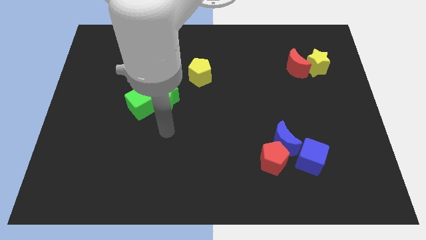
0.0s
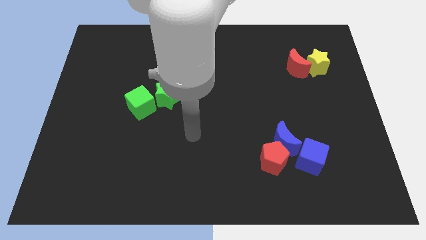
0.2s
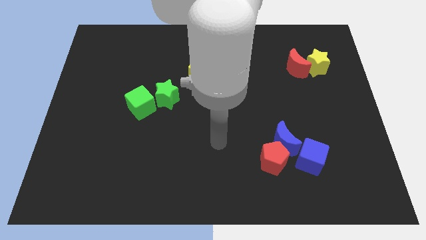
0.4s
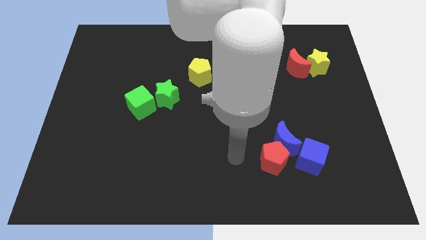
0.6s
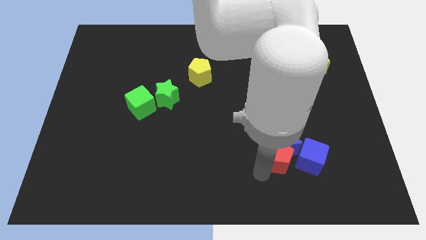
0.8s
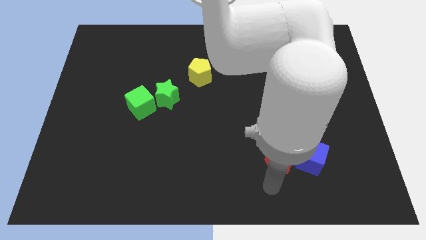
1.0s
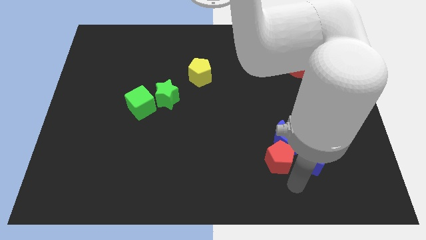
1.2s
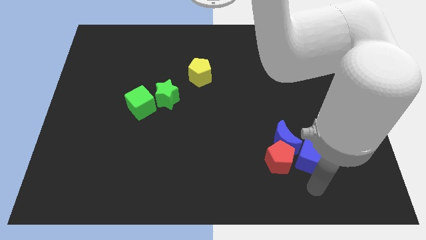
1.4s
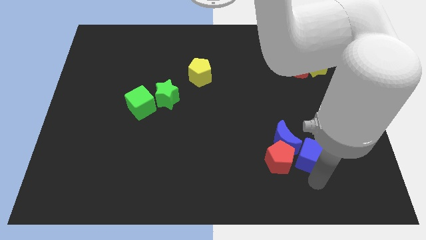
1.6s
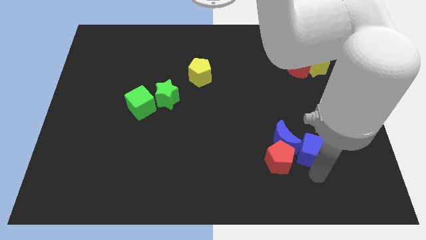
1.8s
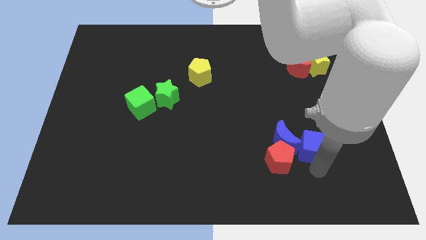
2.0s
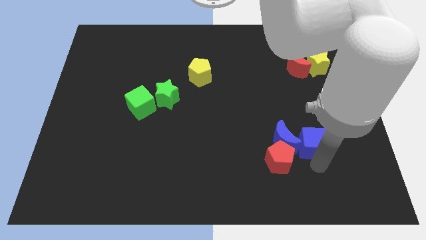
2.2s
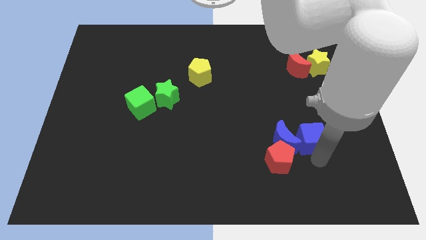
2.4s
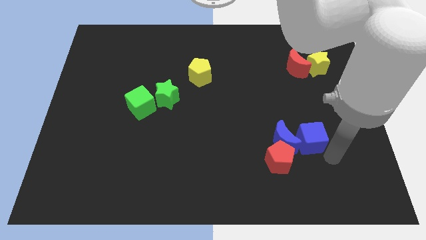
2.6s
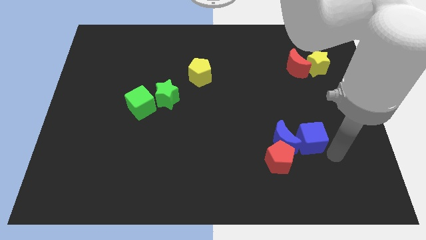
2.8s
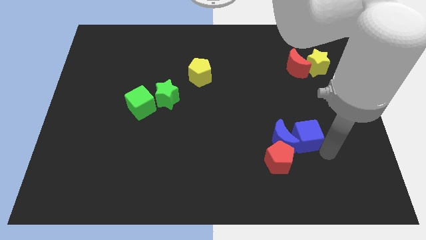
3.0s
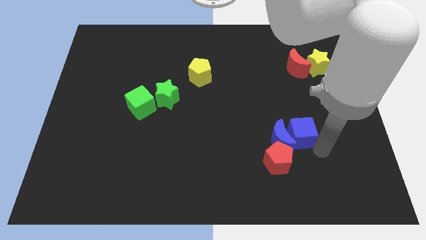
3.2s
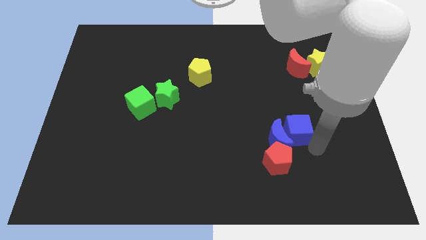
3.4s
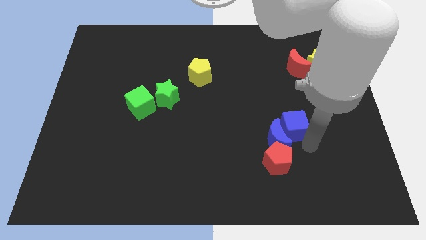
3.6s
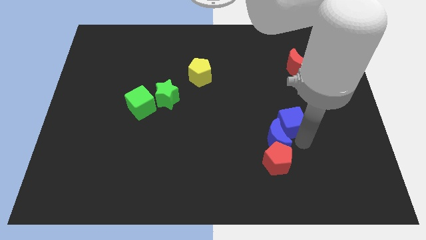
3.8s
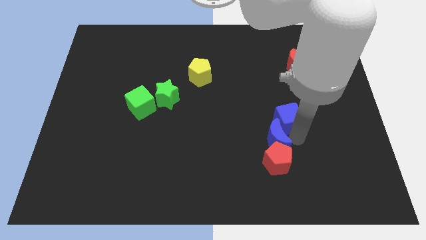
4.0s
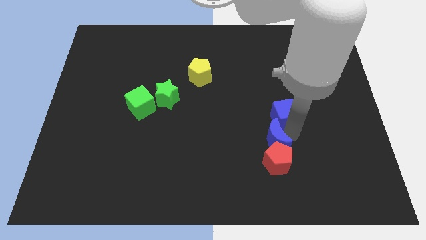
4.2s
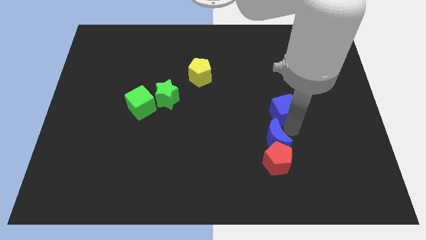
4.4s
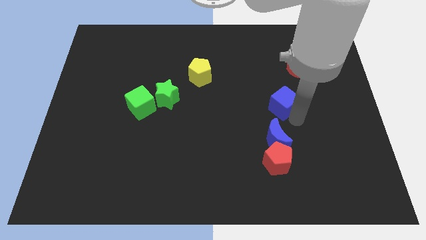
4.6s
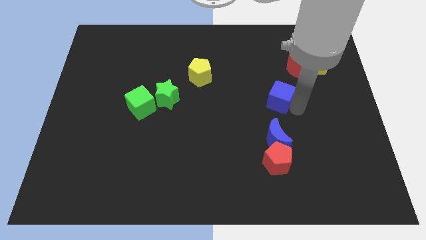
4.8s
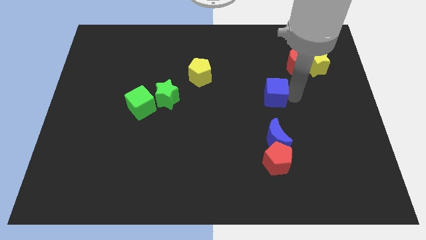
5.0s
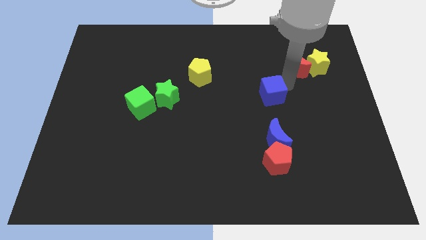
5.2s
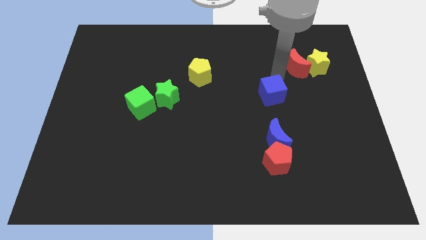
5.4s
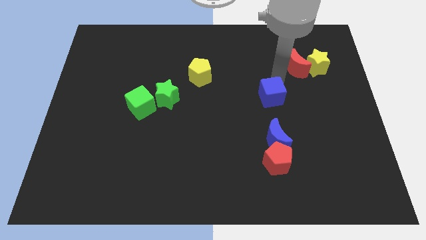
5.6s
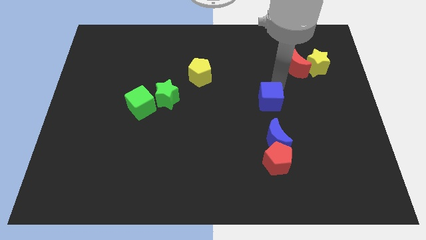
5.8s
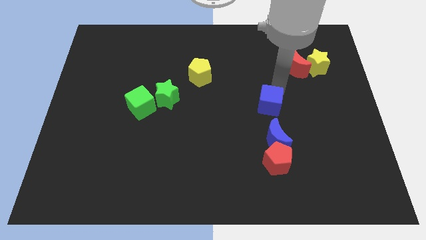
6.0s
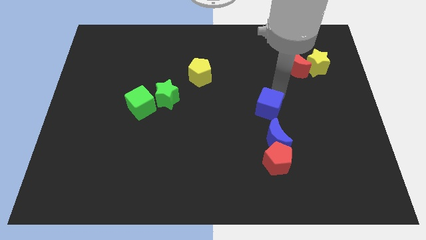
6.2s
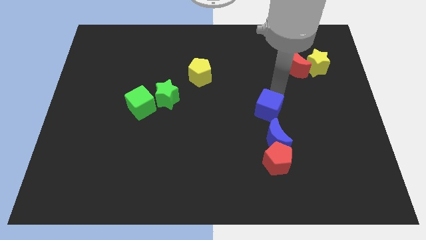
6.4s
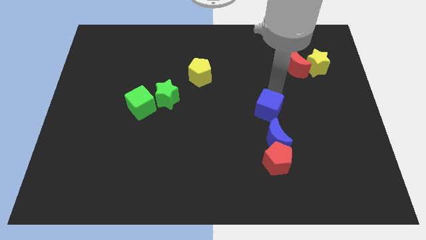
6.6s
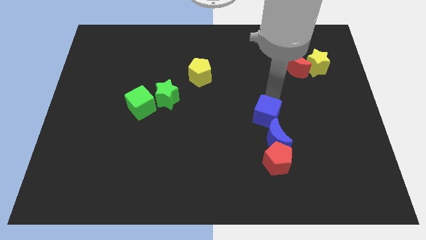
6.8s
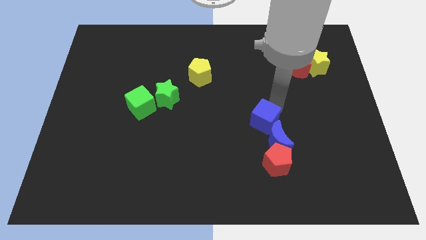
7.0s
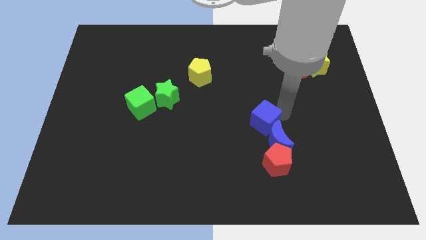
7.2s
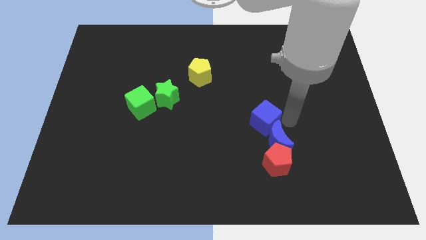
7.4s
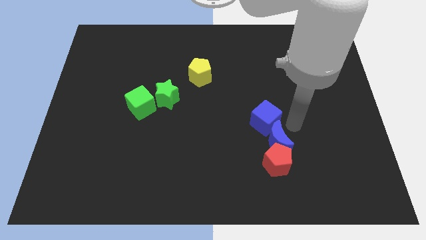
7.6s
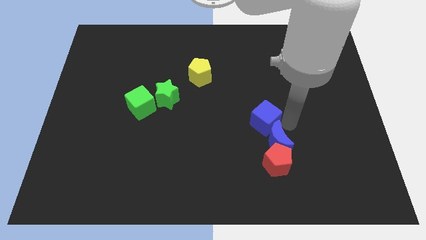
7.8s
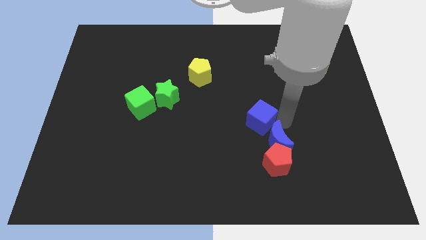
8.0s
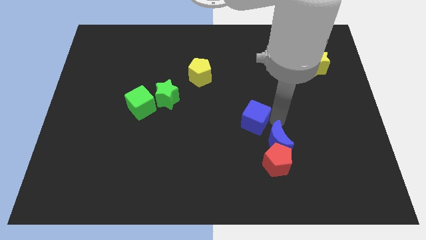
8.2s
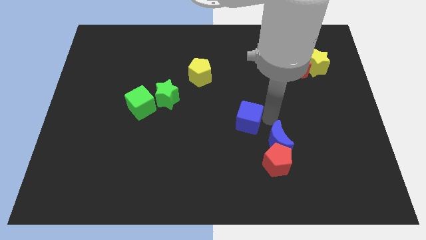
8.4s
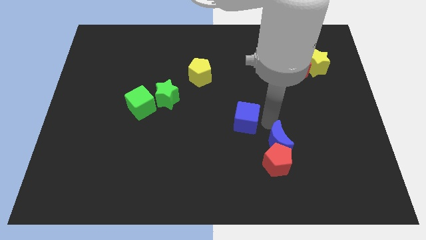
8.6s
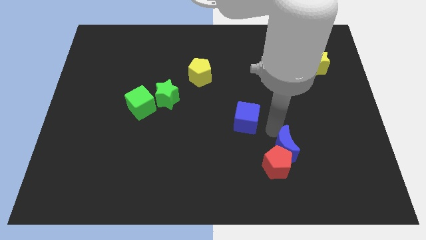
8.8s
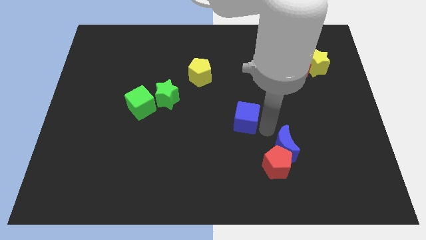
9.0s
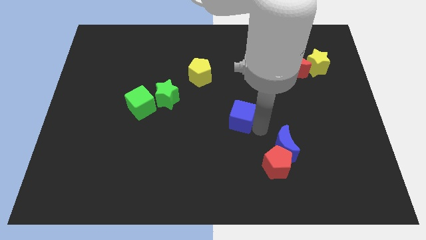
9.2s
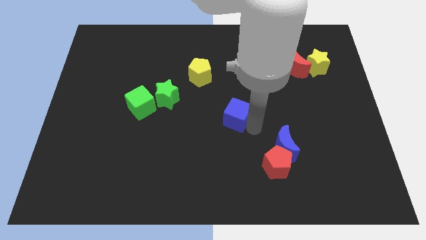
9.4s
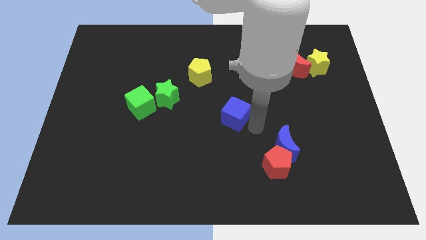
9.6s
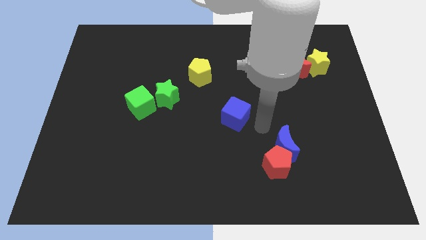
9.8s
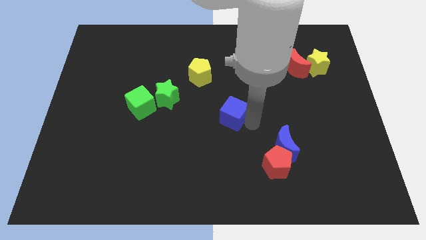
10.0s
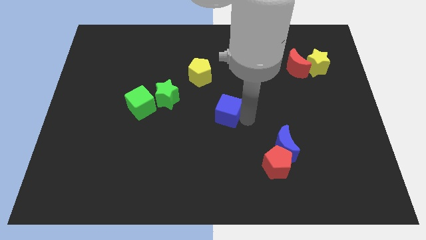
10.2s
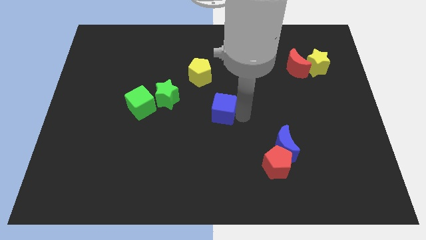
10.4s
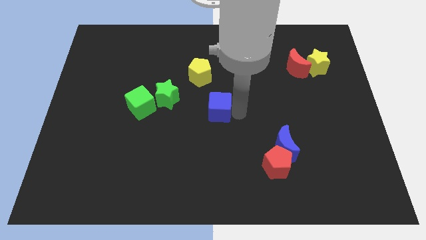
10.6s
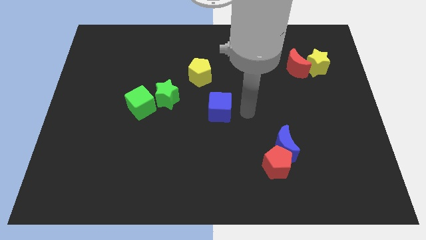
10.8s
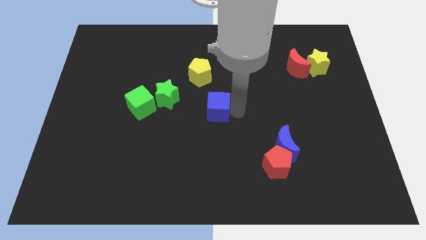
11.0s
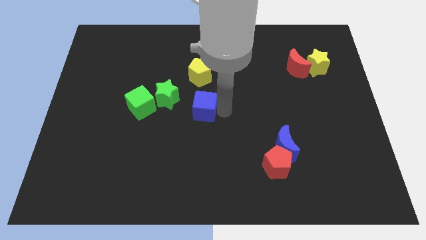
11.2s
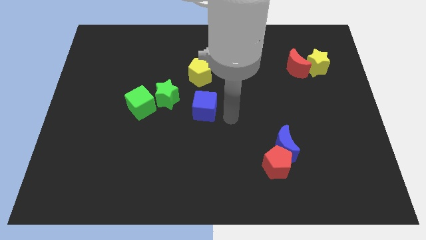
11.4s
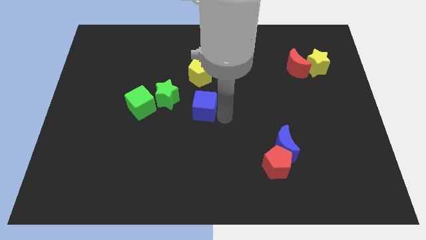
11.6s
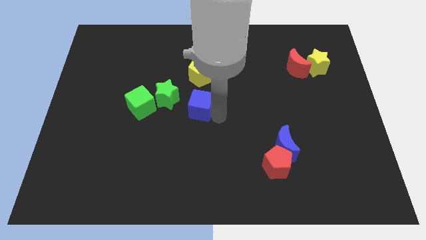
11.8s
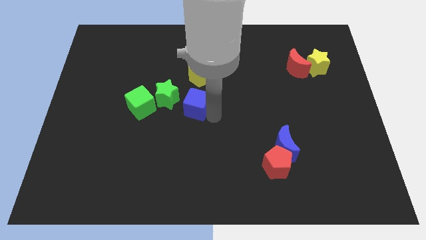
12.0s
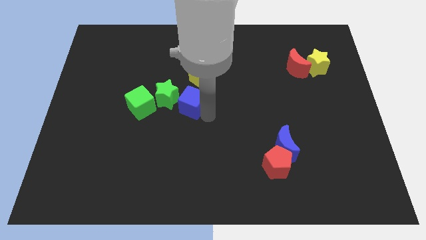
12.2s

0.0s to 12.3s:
push the blue cube close to the green star
